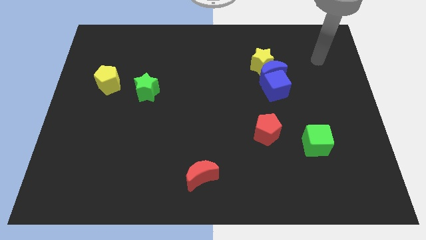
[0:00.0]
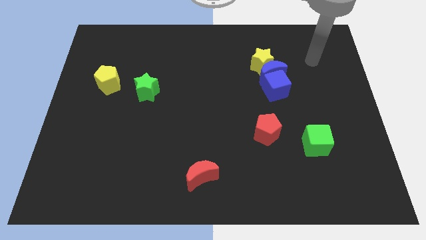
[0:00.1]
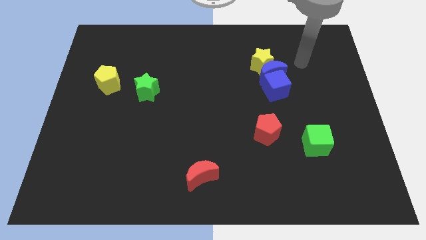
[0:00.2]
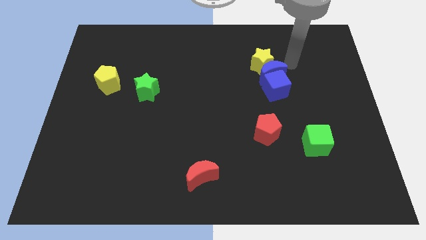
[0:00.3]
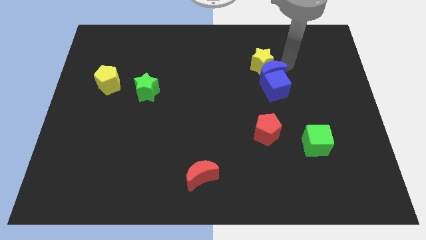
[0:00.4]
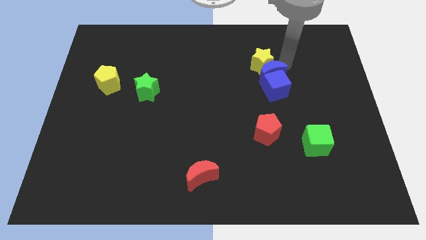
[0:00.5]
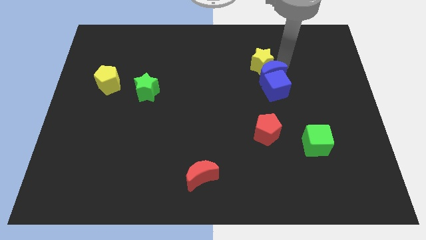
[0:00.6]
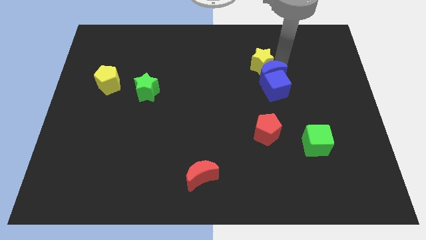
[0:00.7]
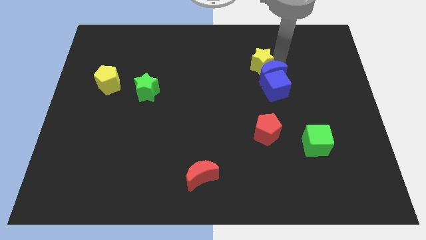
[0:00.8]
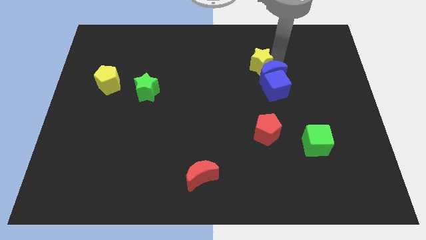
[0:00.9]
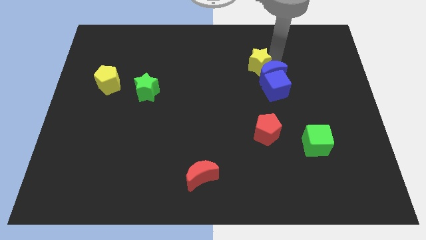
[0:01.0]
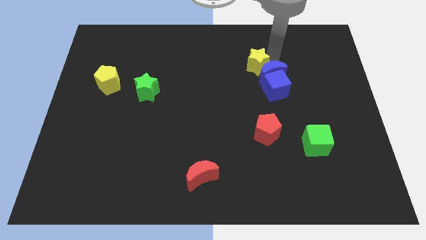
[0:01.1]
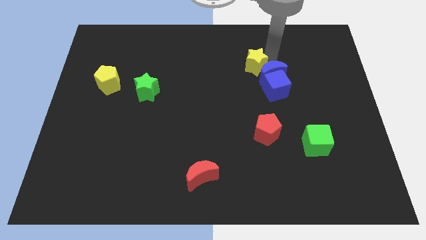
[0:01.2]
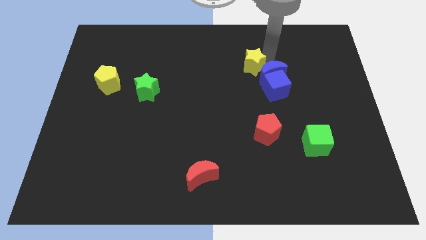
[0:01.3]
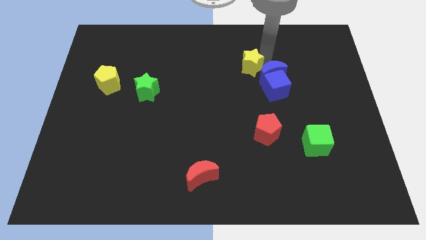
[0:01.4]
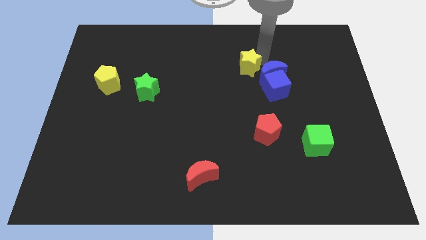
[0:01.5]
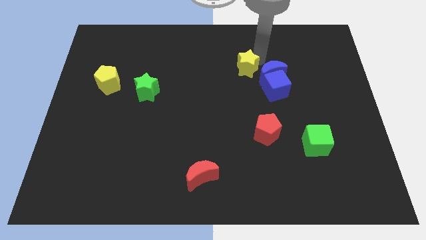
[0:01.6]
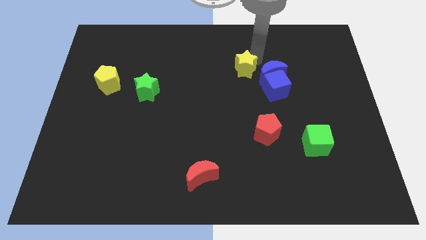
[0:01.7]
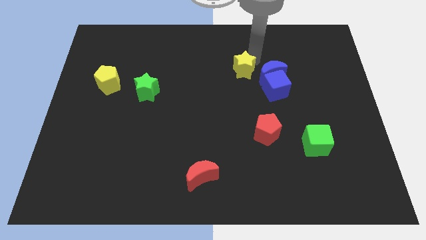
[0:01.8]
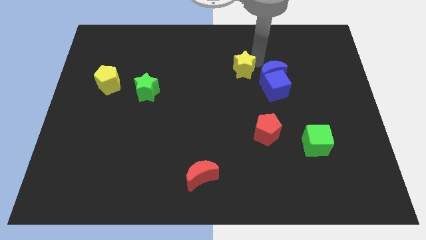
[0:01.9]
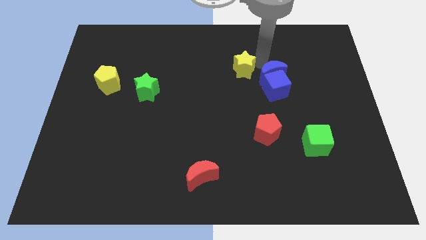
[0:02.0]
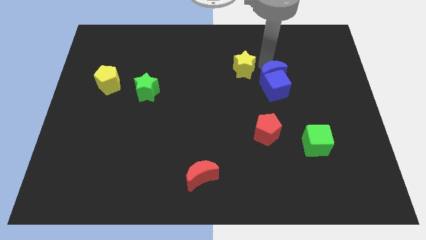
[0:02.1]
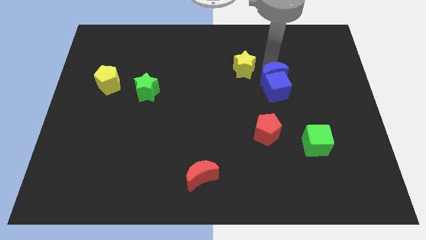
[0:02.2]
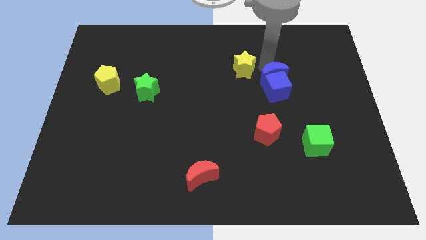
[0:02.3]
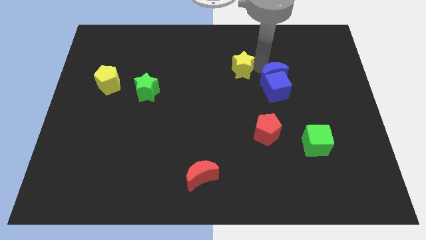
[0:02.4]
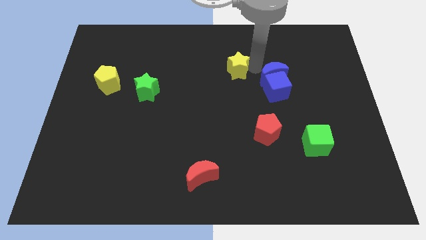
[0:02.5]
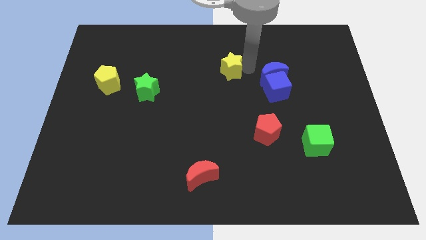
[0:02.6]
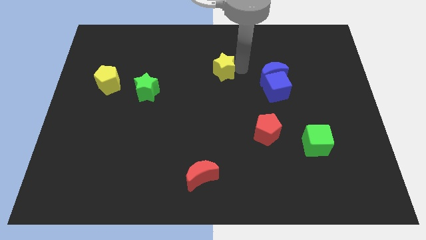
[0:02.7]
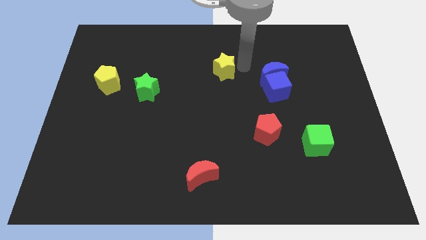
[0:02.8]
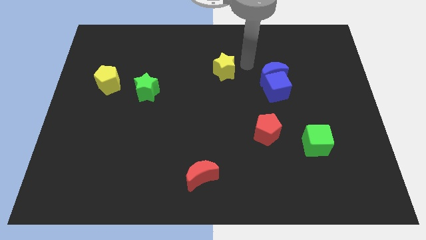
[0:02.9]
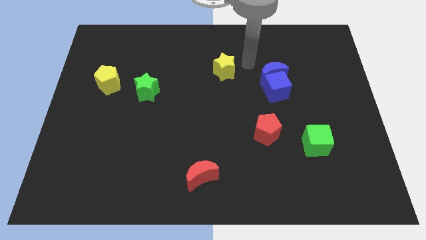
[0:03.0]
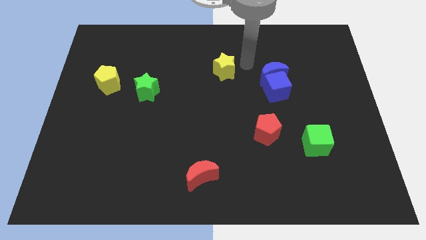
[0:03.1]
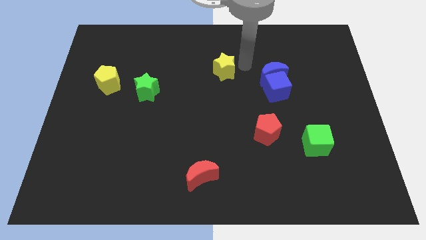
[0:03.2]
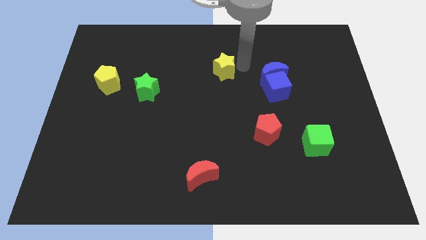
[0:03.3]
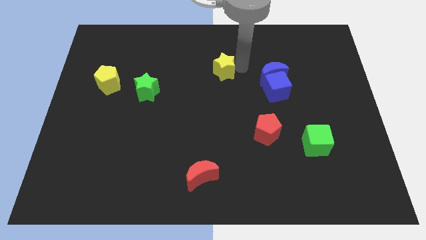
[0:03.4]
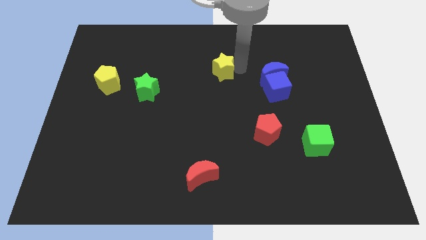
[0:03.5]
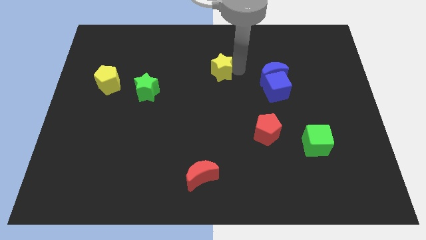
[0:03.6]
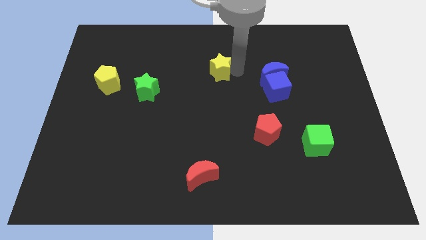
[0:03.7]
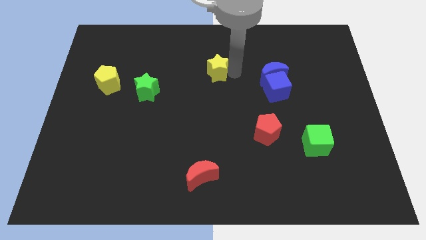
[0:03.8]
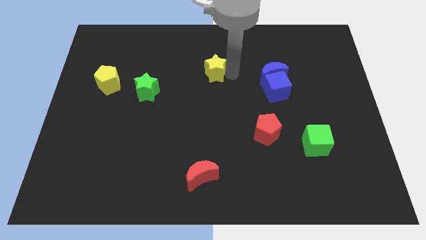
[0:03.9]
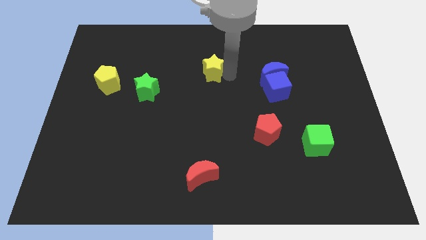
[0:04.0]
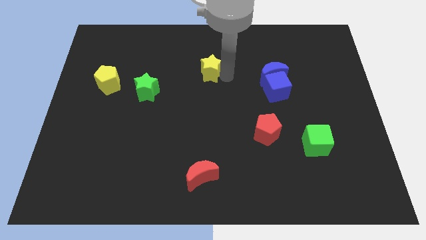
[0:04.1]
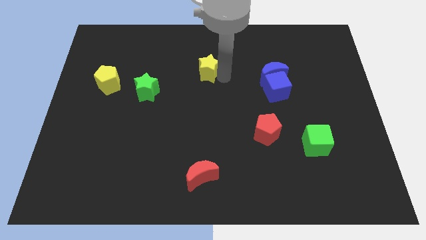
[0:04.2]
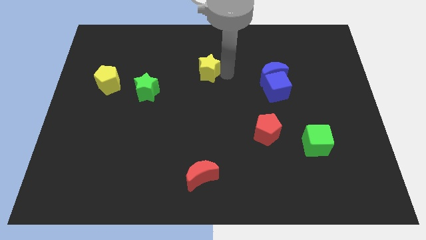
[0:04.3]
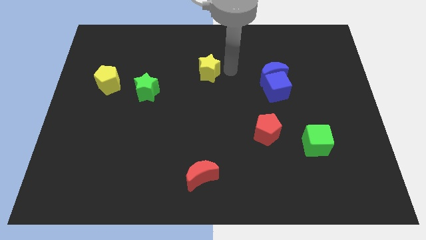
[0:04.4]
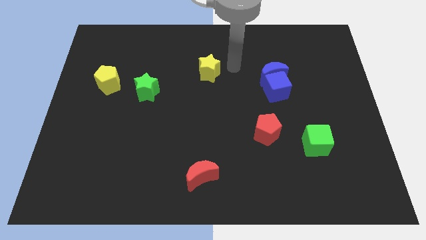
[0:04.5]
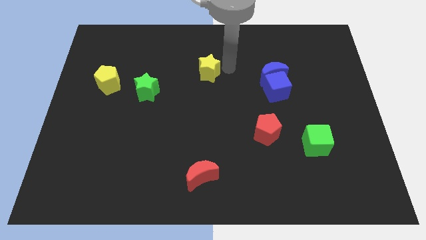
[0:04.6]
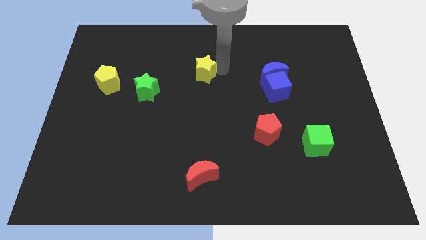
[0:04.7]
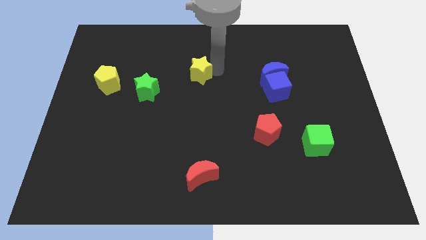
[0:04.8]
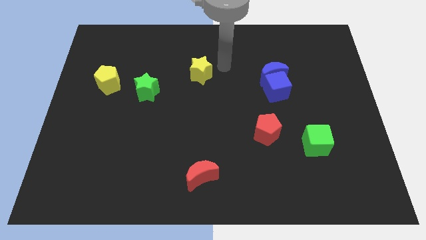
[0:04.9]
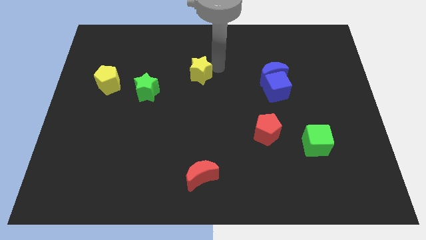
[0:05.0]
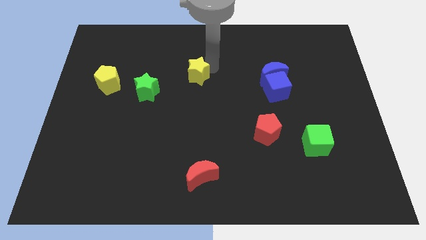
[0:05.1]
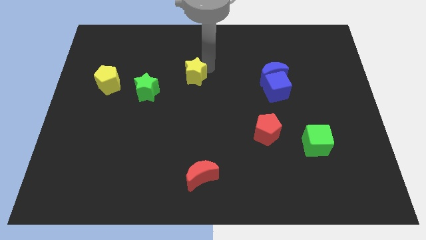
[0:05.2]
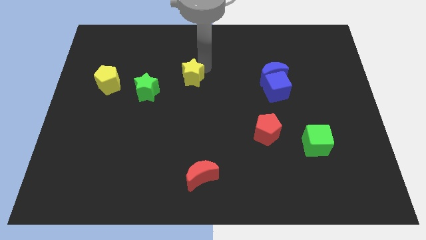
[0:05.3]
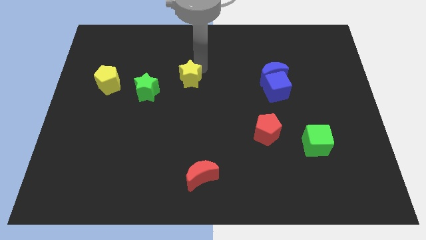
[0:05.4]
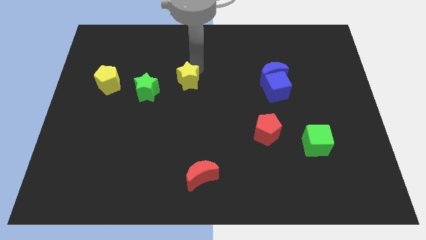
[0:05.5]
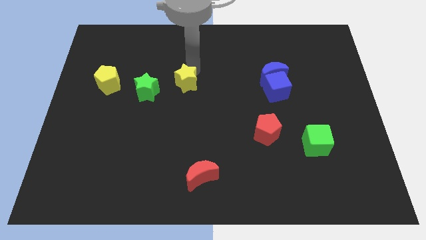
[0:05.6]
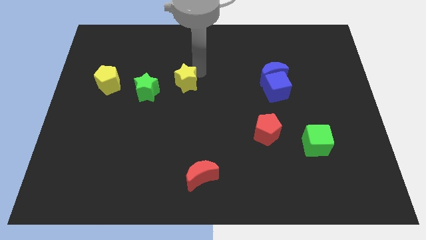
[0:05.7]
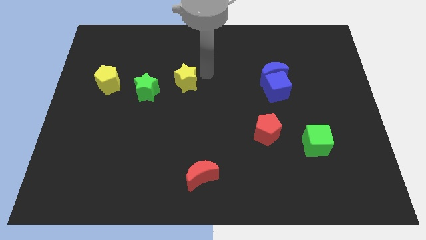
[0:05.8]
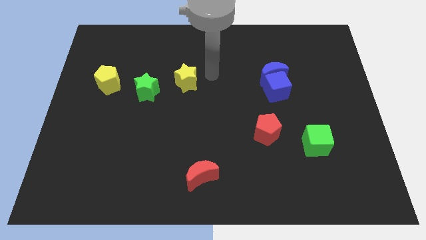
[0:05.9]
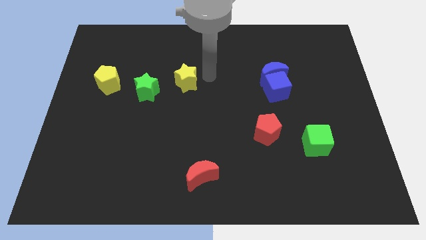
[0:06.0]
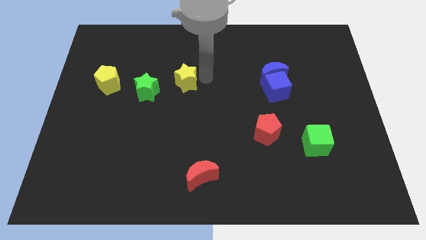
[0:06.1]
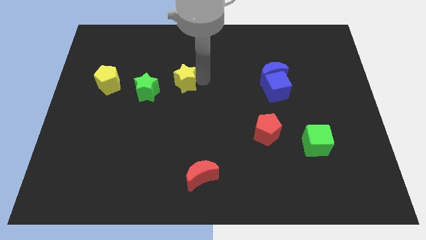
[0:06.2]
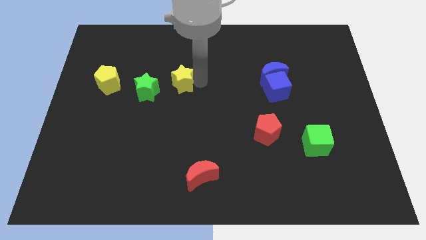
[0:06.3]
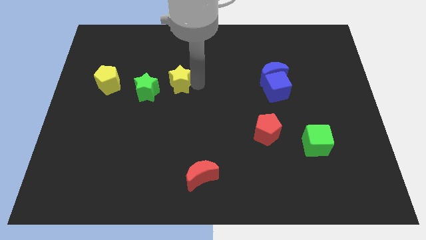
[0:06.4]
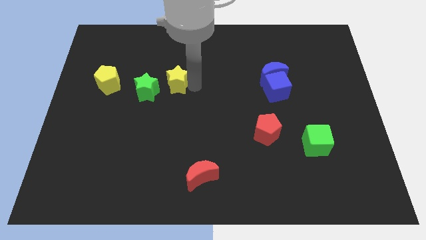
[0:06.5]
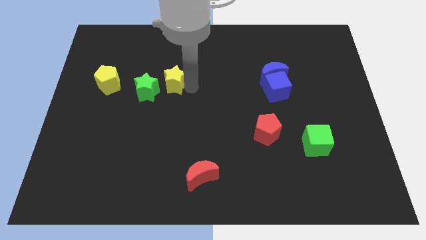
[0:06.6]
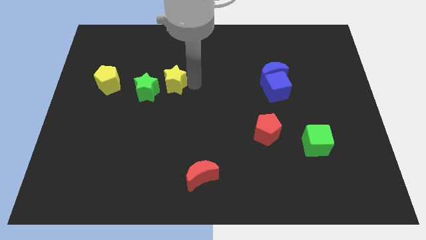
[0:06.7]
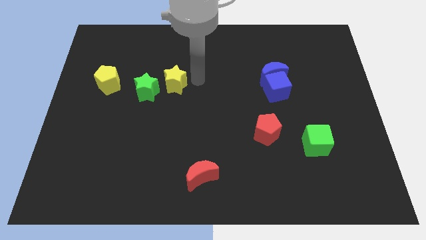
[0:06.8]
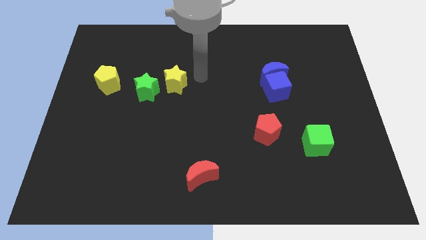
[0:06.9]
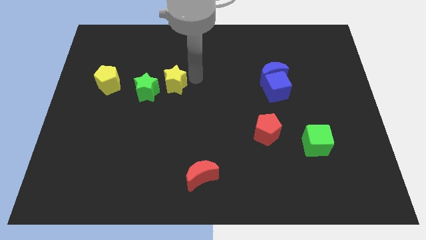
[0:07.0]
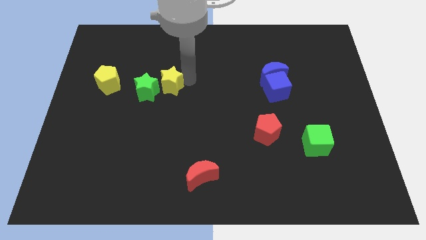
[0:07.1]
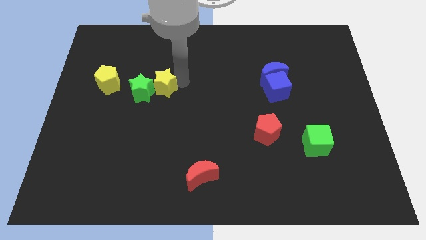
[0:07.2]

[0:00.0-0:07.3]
put the yellow star towards the green star

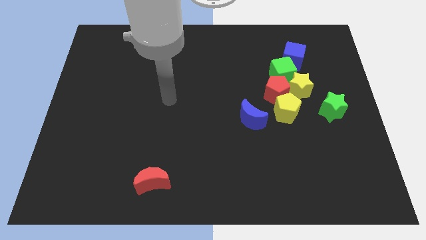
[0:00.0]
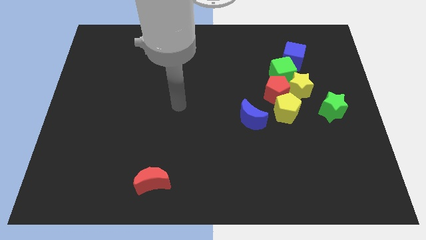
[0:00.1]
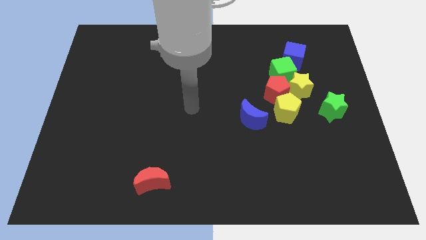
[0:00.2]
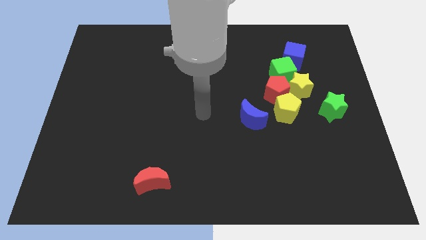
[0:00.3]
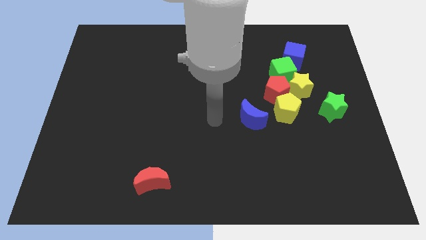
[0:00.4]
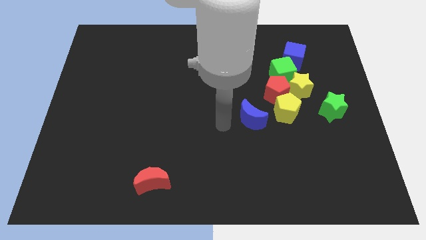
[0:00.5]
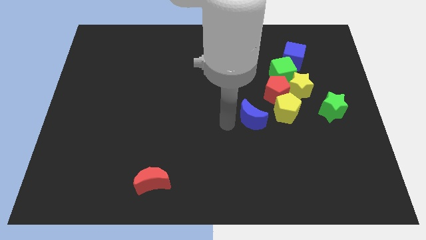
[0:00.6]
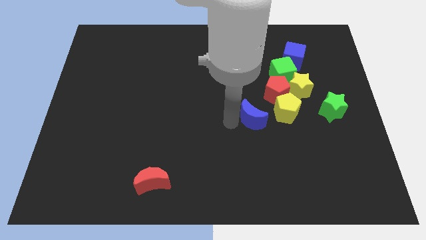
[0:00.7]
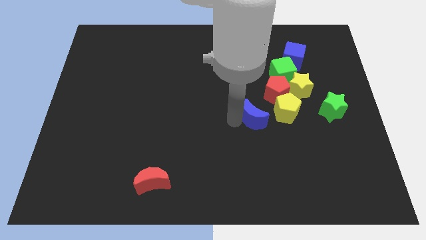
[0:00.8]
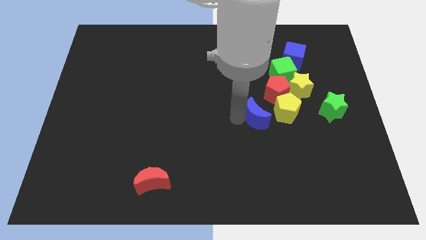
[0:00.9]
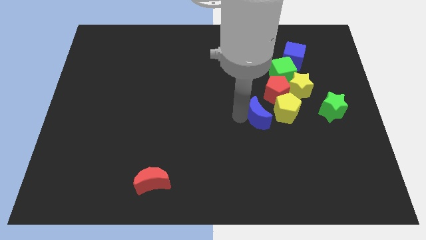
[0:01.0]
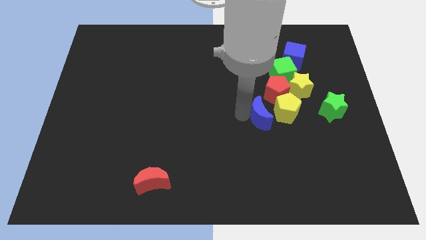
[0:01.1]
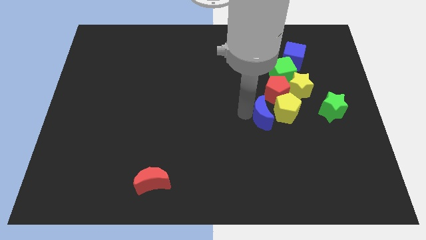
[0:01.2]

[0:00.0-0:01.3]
slide the blue moon close to the yellow pentagon
